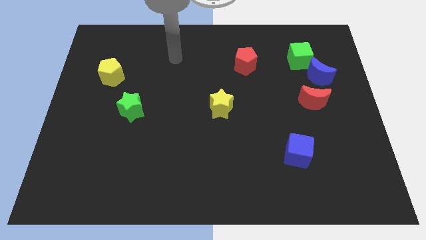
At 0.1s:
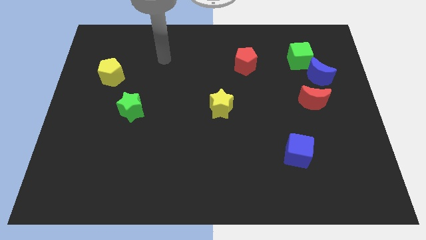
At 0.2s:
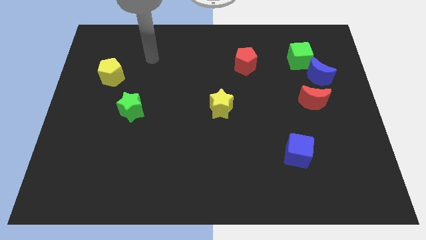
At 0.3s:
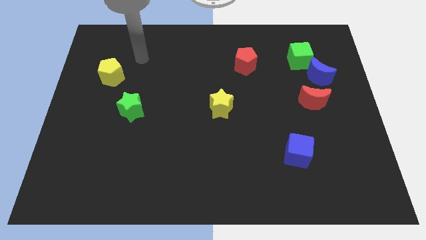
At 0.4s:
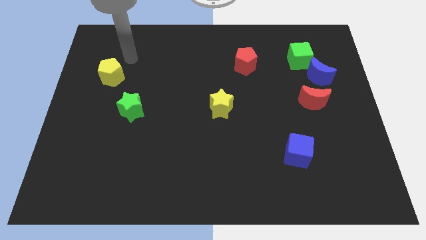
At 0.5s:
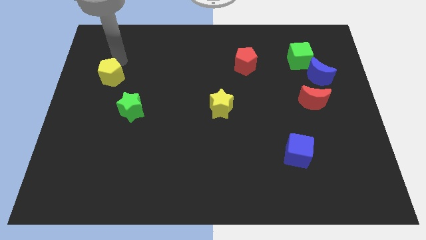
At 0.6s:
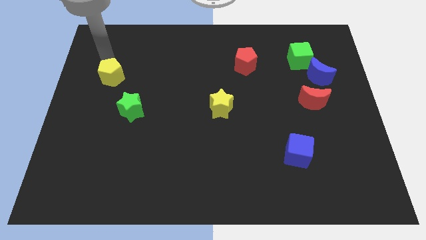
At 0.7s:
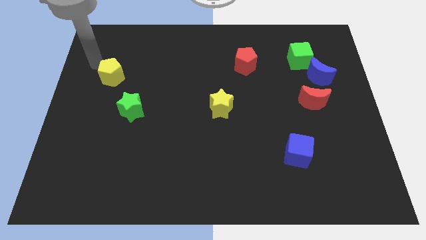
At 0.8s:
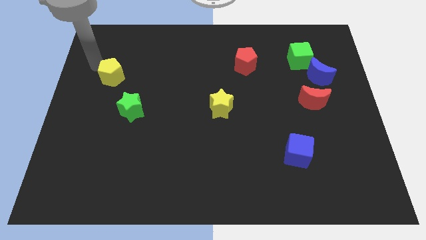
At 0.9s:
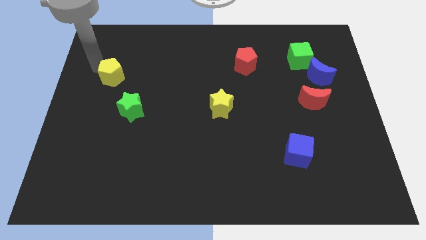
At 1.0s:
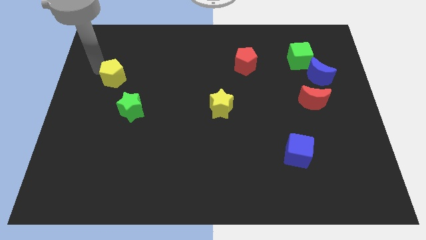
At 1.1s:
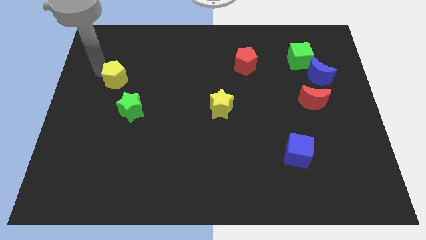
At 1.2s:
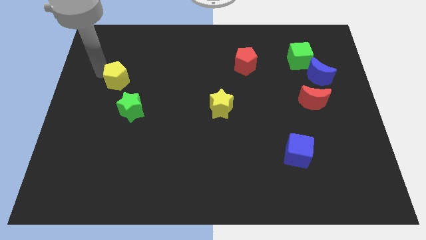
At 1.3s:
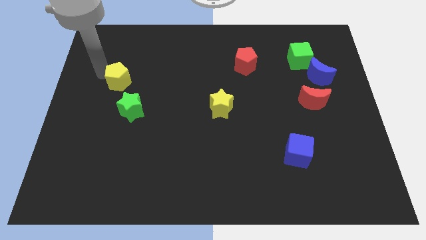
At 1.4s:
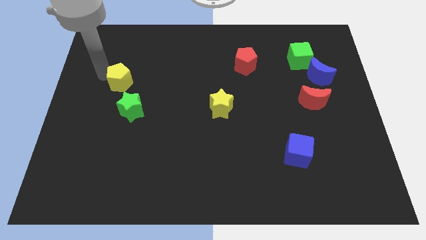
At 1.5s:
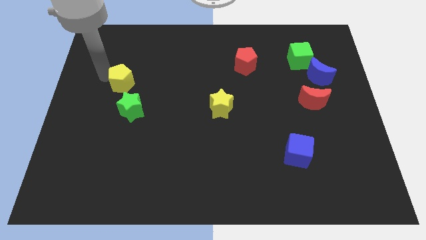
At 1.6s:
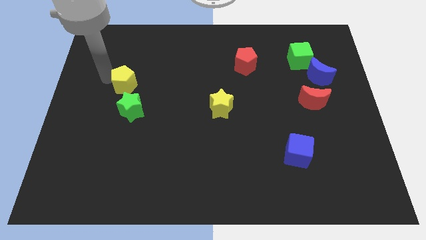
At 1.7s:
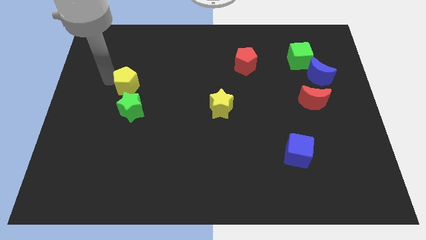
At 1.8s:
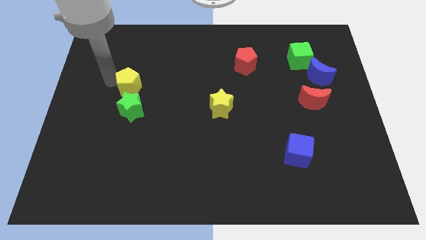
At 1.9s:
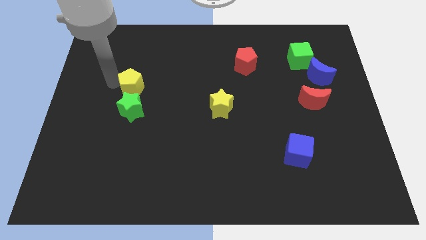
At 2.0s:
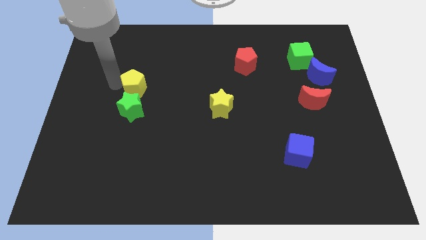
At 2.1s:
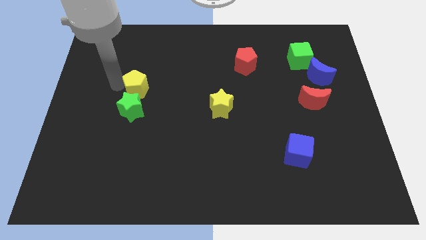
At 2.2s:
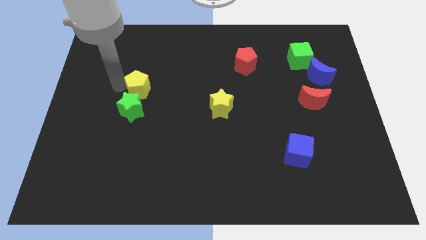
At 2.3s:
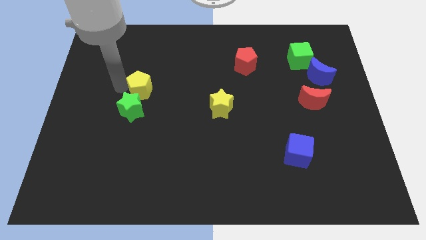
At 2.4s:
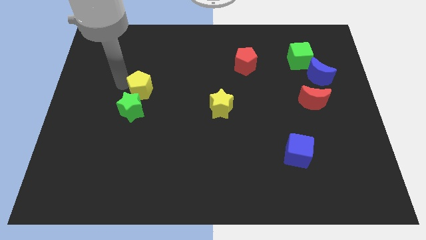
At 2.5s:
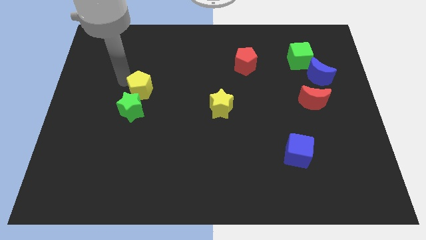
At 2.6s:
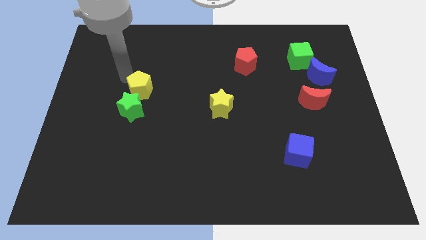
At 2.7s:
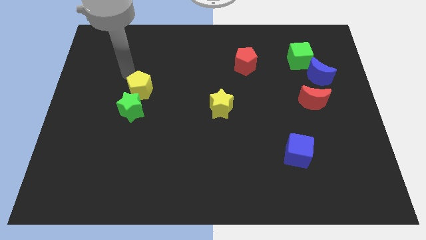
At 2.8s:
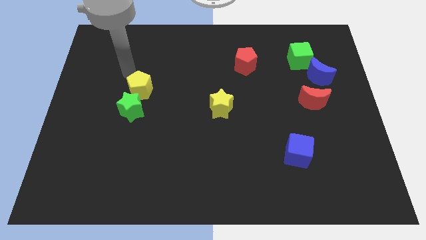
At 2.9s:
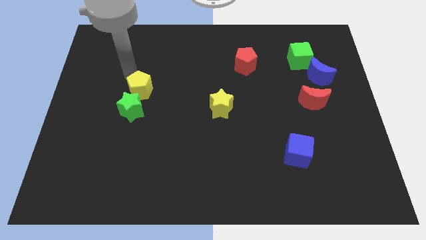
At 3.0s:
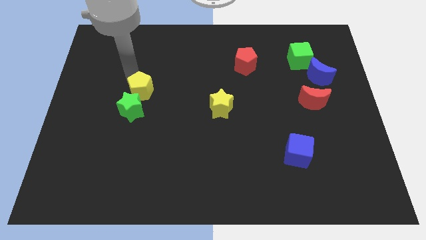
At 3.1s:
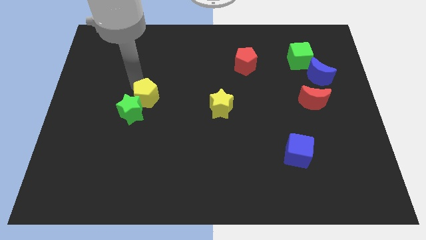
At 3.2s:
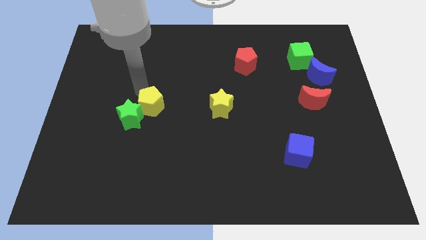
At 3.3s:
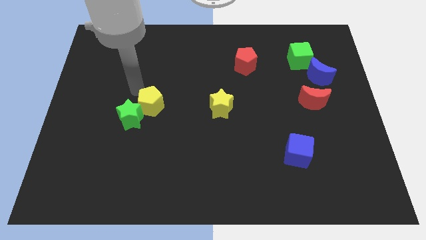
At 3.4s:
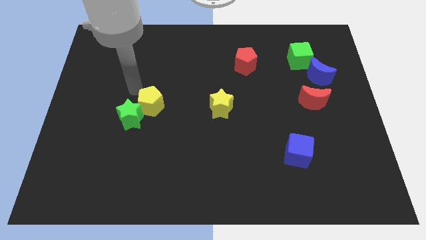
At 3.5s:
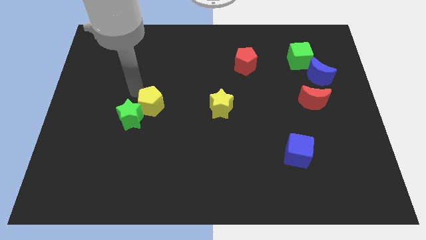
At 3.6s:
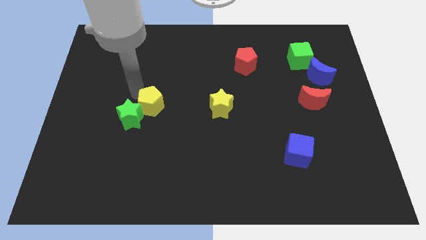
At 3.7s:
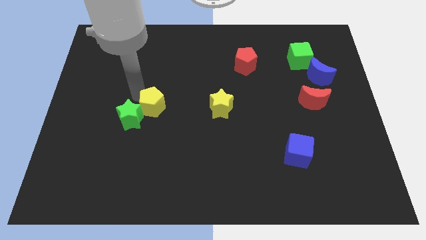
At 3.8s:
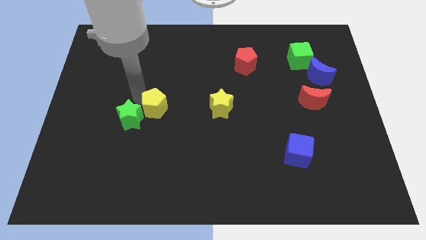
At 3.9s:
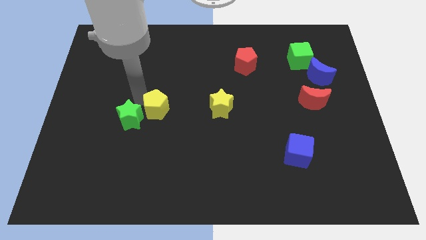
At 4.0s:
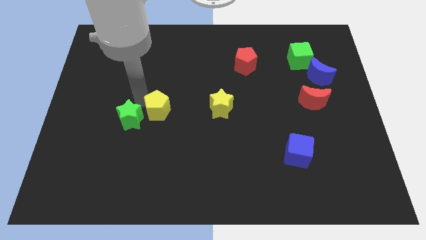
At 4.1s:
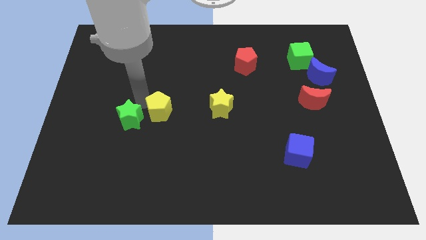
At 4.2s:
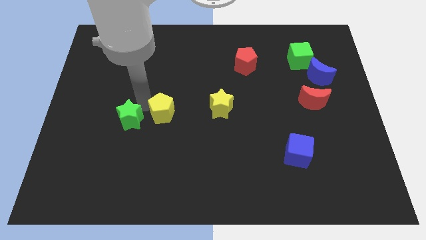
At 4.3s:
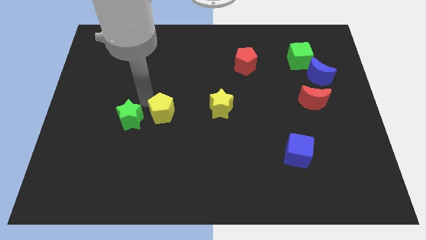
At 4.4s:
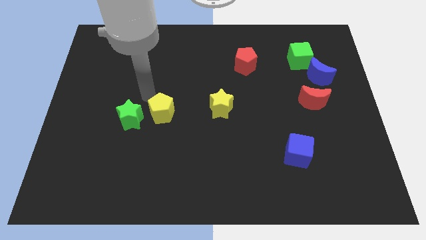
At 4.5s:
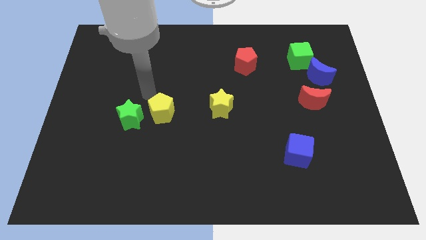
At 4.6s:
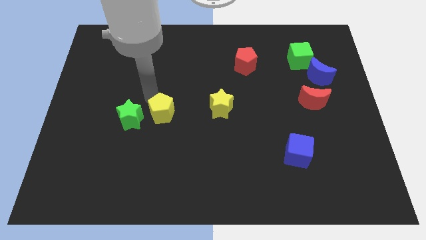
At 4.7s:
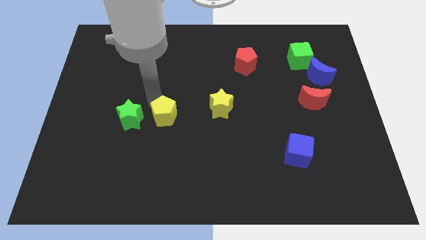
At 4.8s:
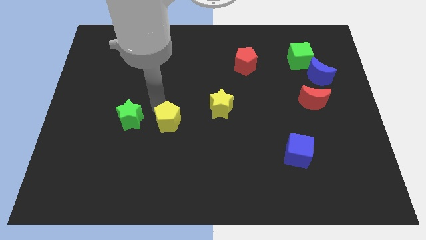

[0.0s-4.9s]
slide the yellow pentagon down and to the right

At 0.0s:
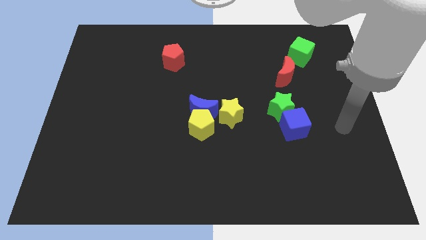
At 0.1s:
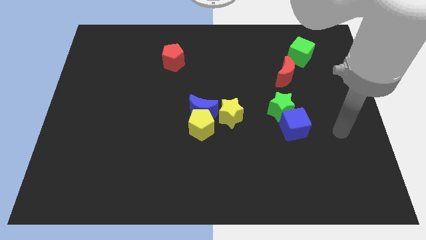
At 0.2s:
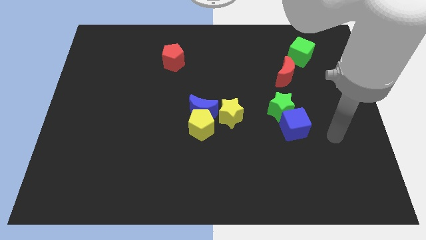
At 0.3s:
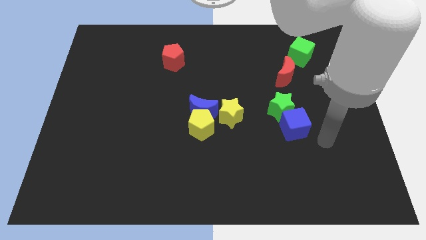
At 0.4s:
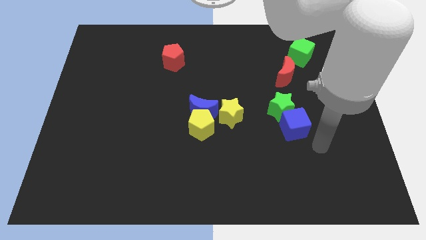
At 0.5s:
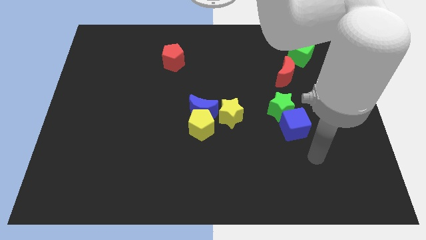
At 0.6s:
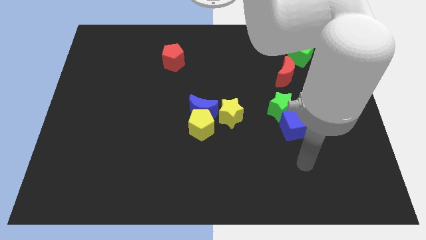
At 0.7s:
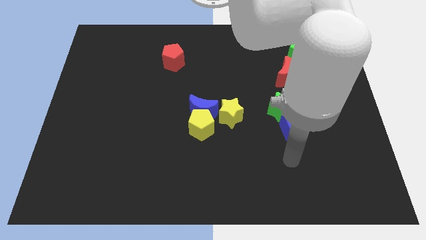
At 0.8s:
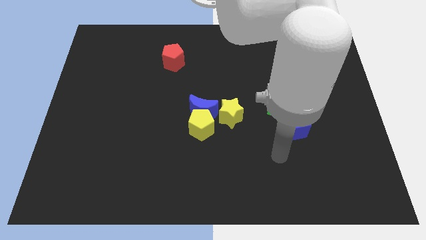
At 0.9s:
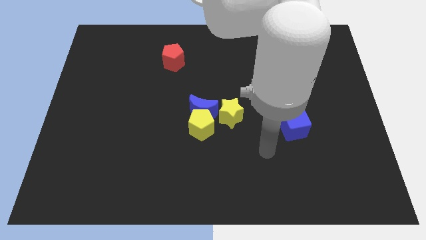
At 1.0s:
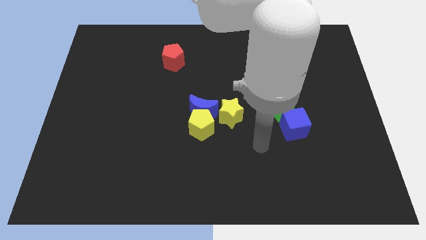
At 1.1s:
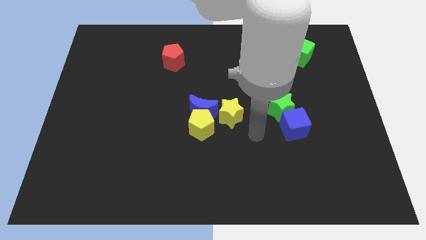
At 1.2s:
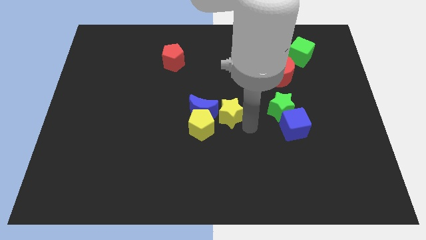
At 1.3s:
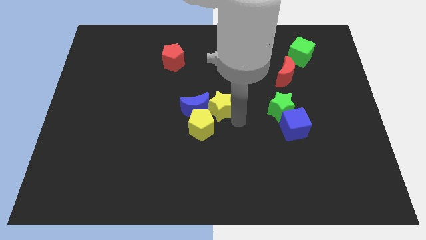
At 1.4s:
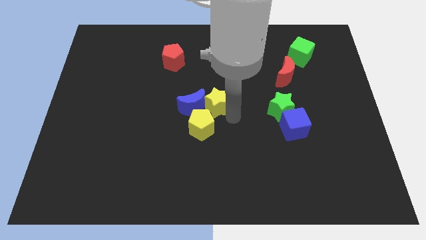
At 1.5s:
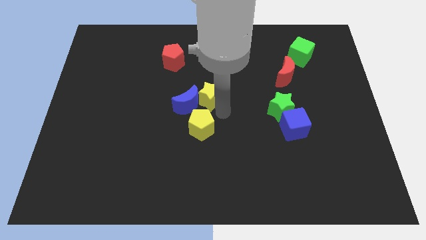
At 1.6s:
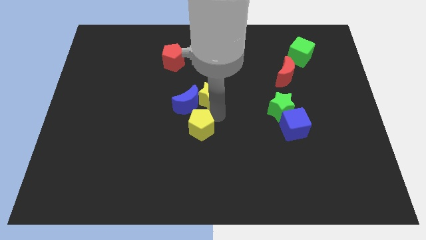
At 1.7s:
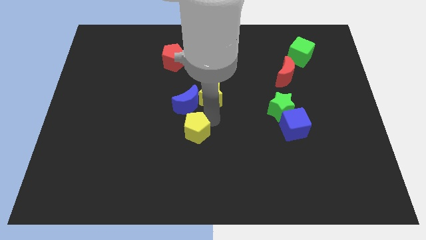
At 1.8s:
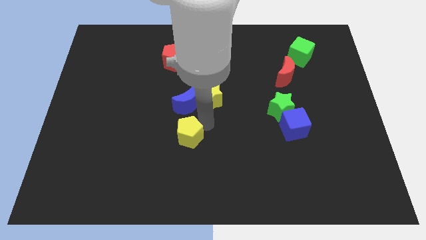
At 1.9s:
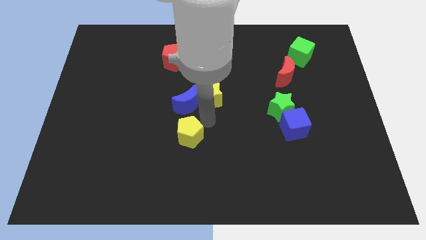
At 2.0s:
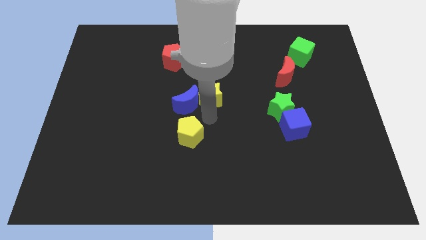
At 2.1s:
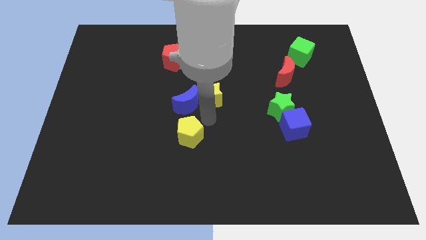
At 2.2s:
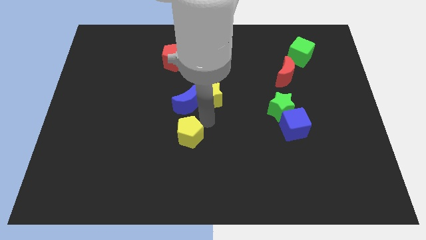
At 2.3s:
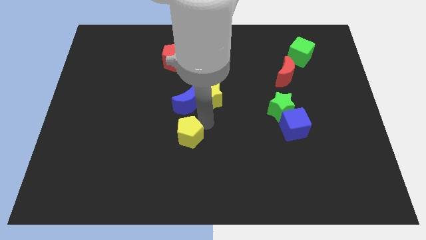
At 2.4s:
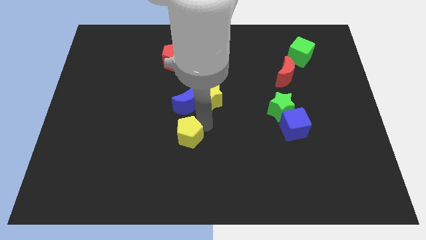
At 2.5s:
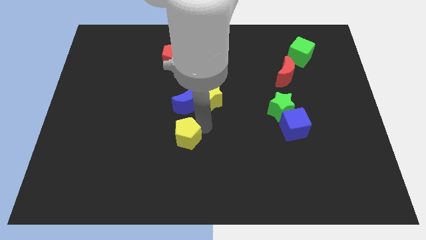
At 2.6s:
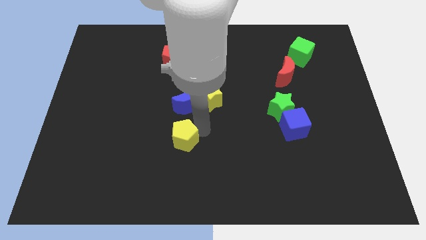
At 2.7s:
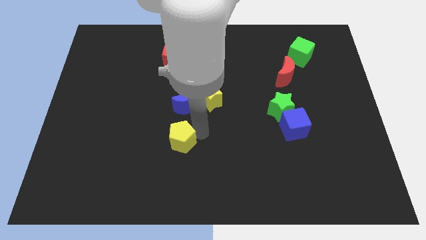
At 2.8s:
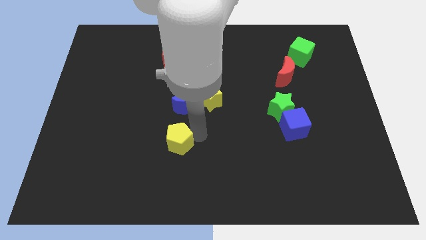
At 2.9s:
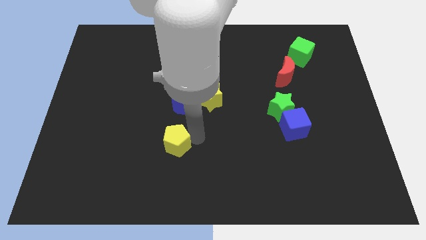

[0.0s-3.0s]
slightly move the yellow pentagon down and left

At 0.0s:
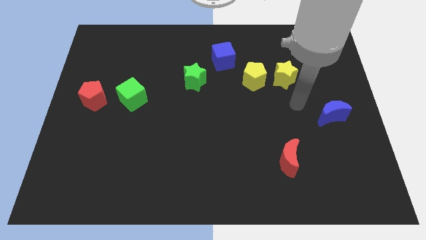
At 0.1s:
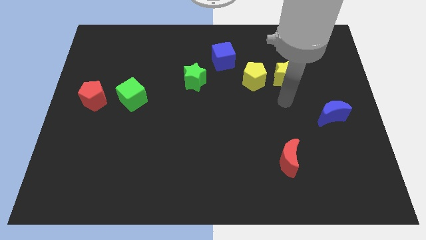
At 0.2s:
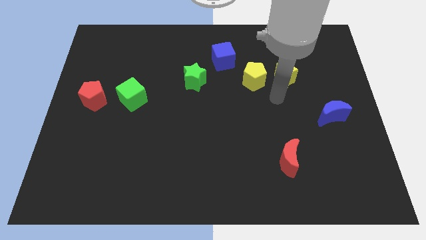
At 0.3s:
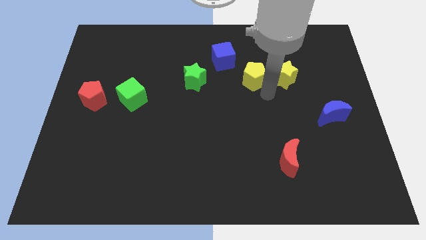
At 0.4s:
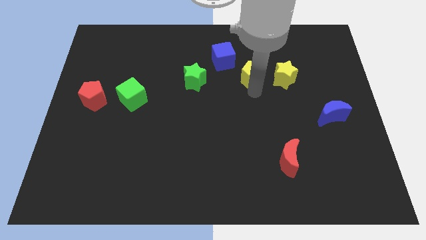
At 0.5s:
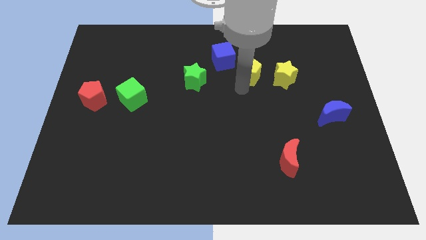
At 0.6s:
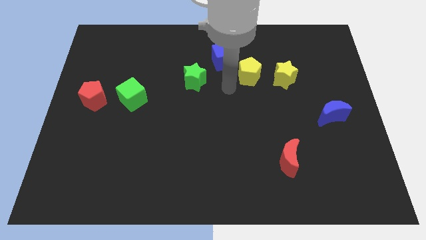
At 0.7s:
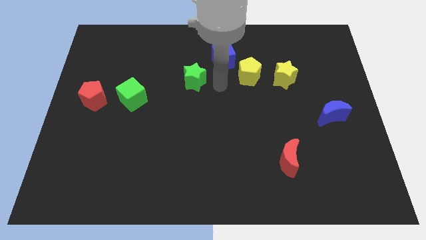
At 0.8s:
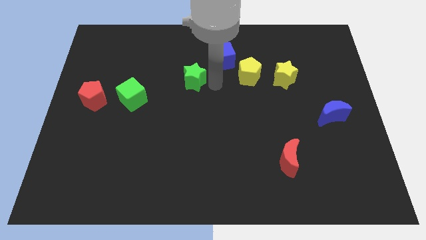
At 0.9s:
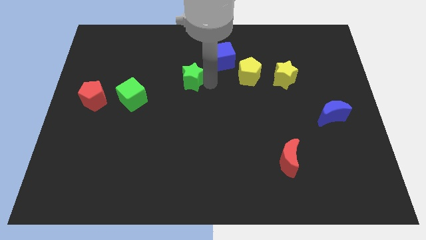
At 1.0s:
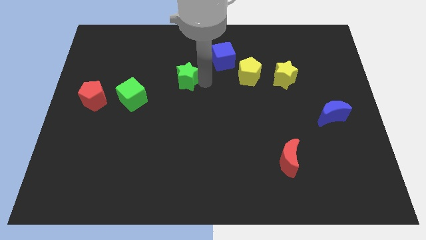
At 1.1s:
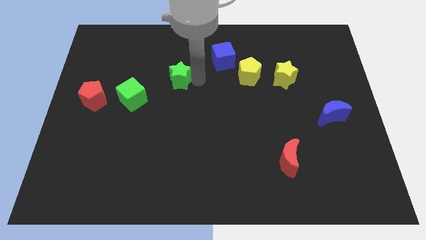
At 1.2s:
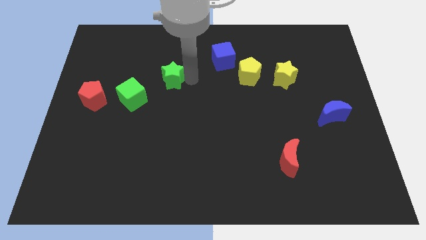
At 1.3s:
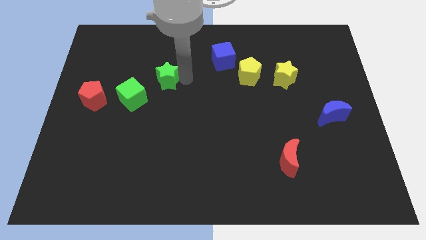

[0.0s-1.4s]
move the green star a little left
